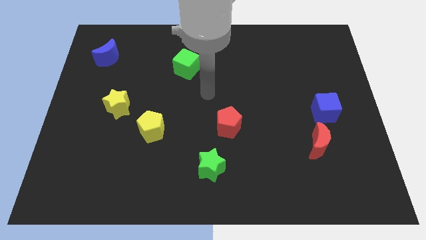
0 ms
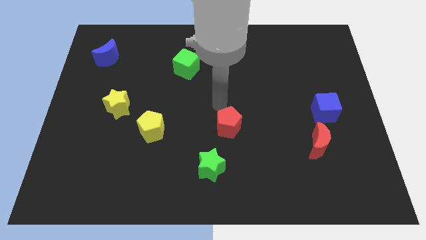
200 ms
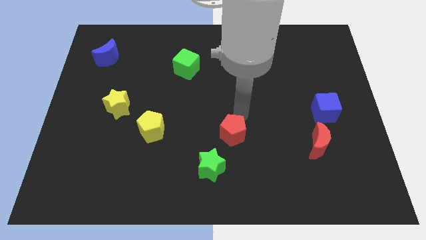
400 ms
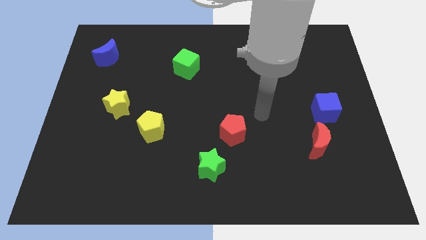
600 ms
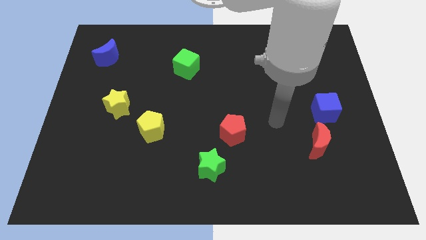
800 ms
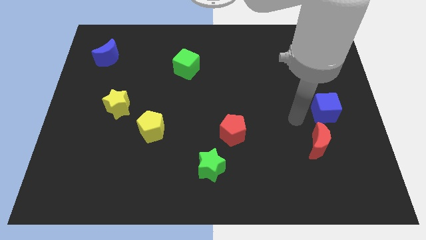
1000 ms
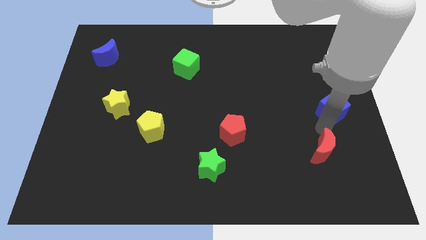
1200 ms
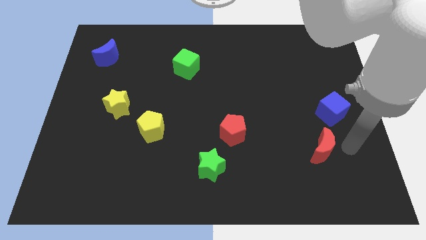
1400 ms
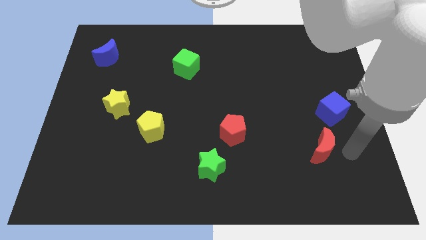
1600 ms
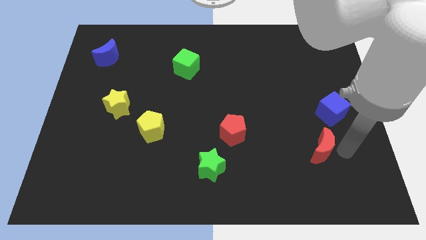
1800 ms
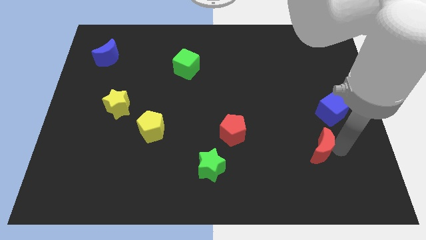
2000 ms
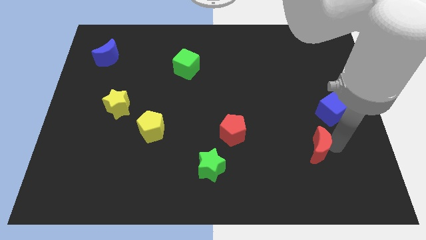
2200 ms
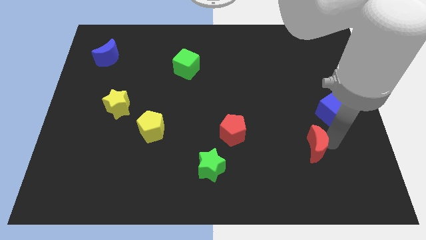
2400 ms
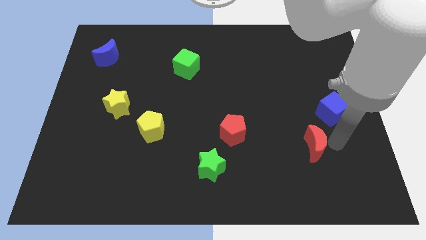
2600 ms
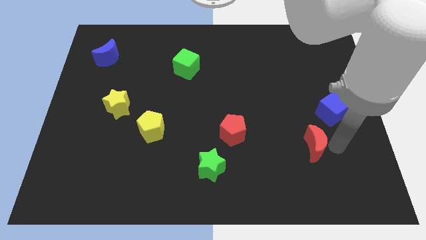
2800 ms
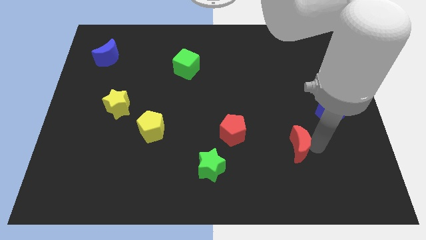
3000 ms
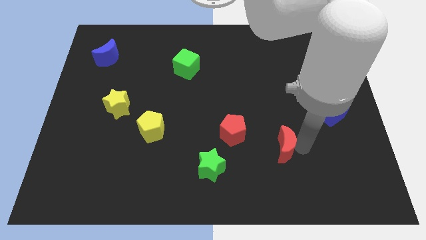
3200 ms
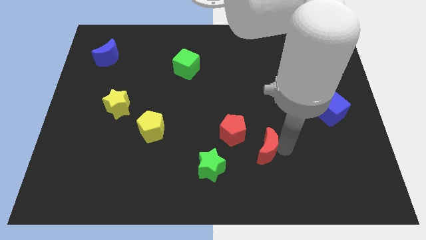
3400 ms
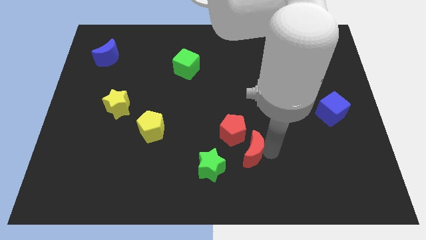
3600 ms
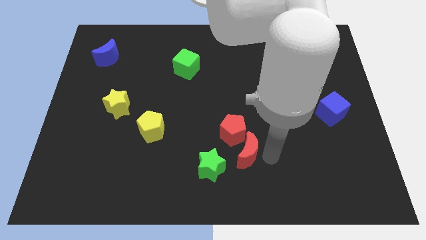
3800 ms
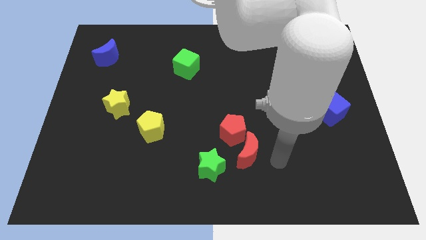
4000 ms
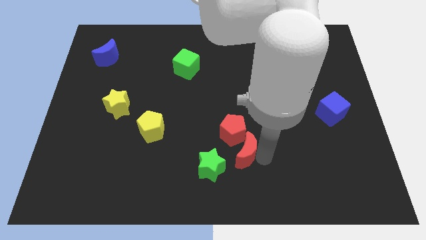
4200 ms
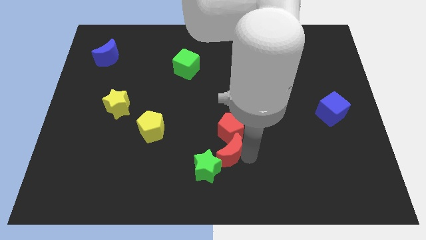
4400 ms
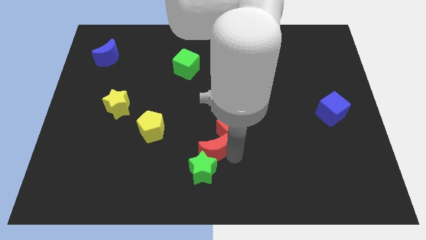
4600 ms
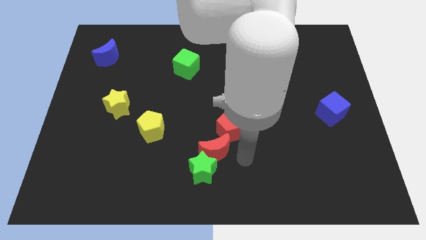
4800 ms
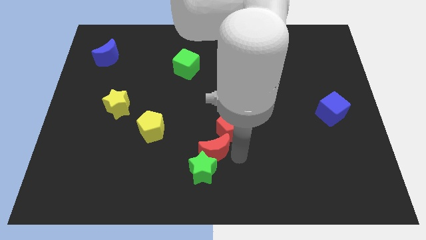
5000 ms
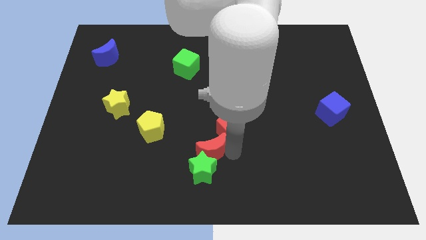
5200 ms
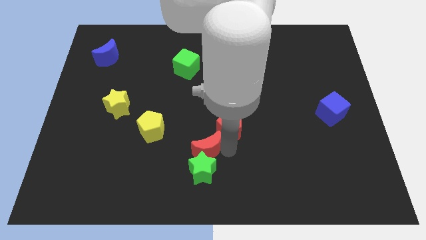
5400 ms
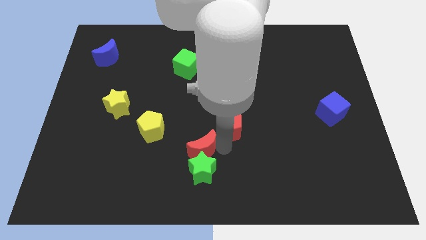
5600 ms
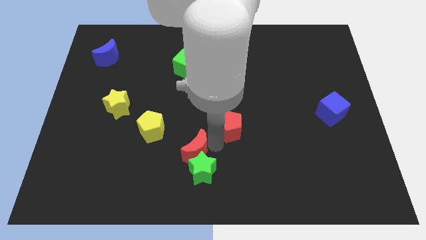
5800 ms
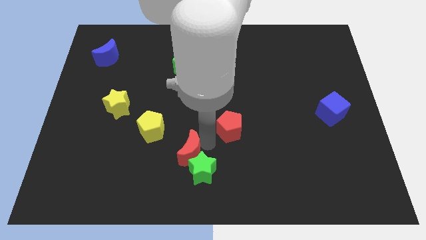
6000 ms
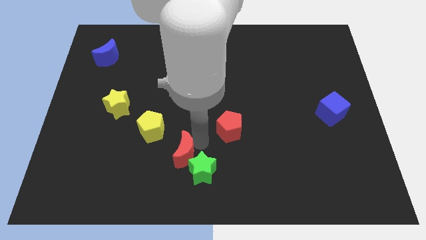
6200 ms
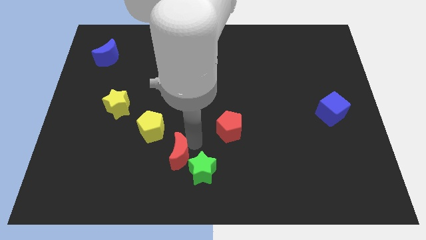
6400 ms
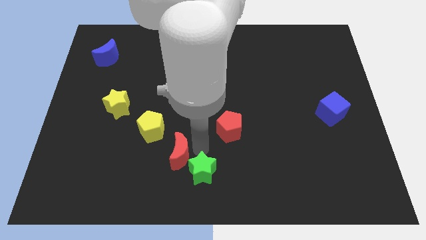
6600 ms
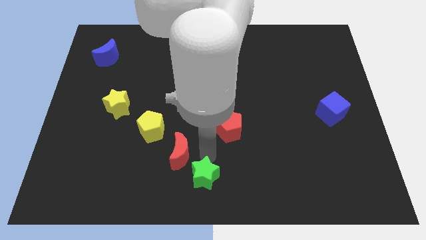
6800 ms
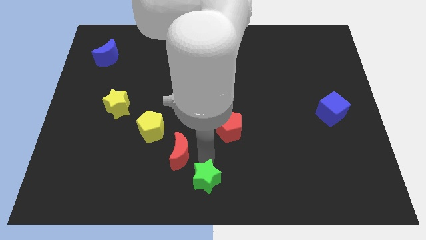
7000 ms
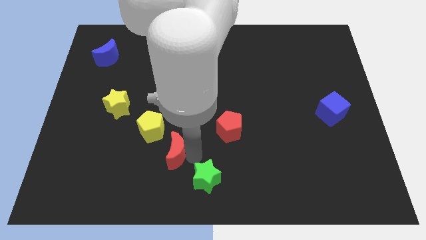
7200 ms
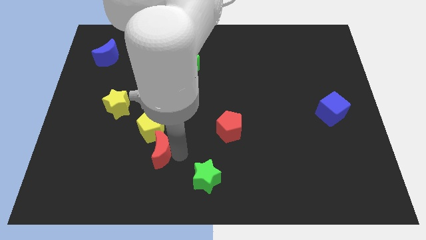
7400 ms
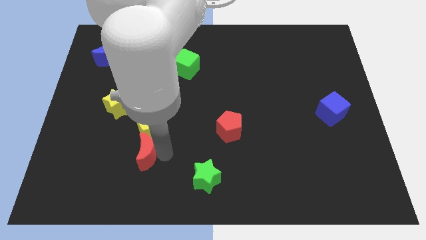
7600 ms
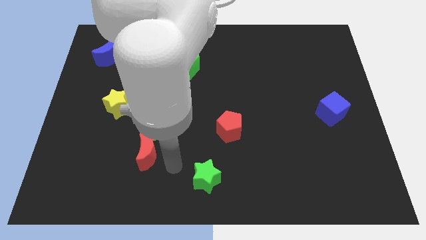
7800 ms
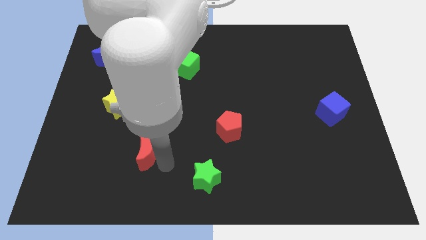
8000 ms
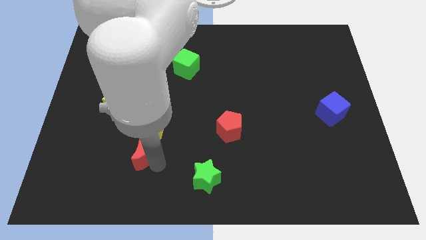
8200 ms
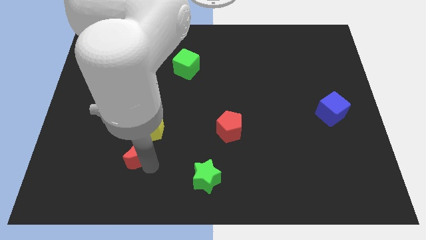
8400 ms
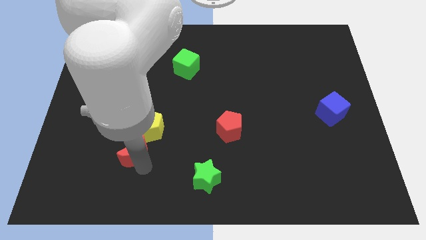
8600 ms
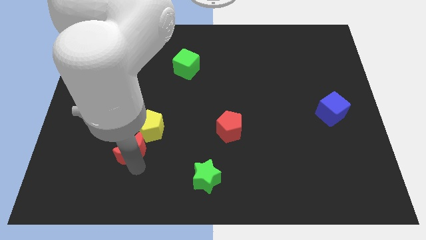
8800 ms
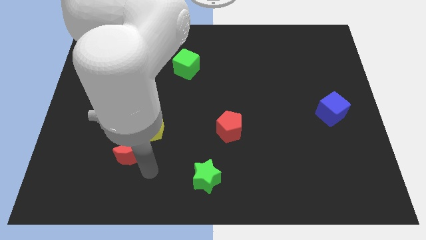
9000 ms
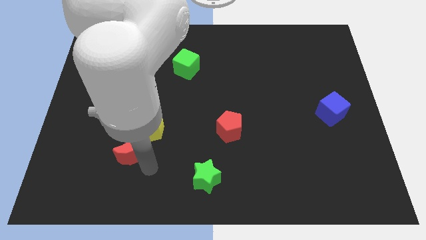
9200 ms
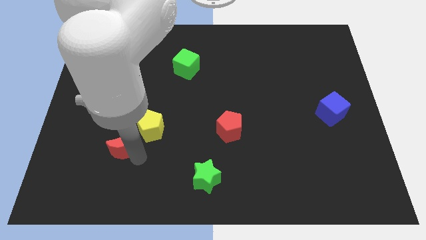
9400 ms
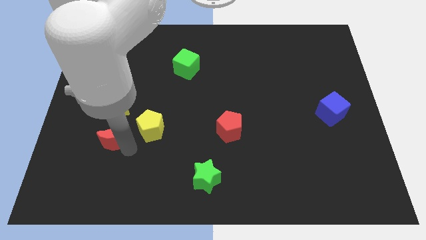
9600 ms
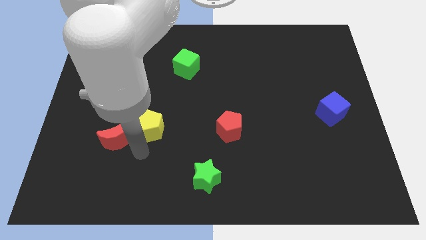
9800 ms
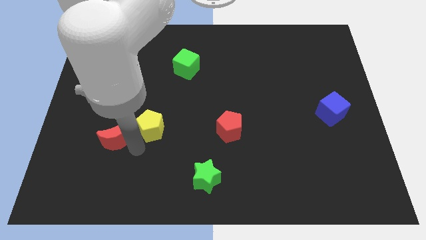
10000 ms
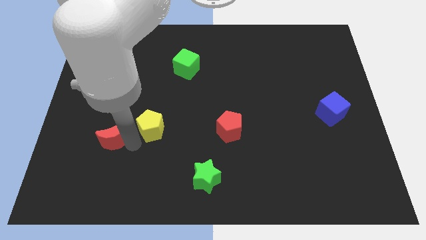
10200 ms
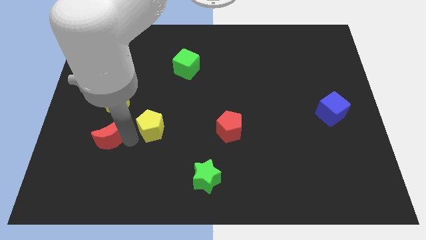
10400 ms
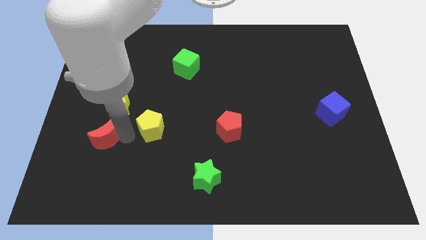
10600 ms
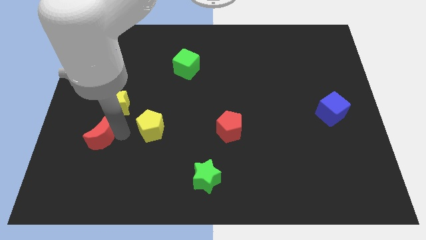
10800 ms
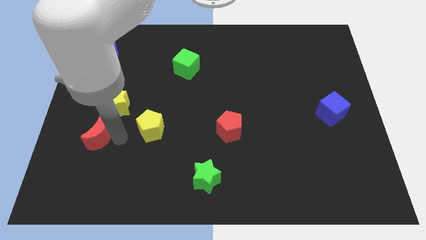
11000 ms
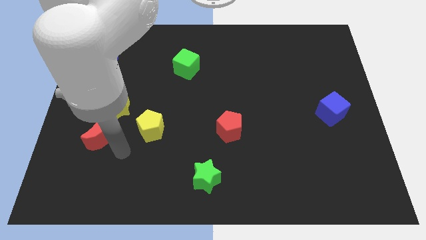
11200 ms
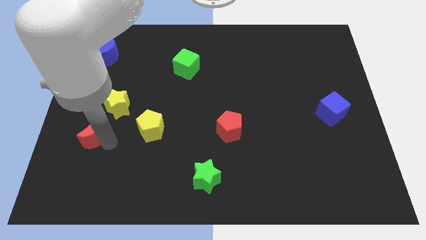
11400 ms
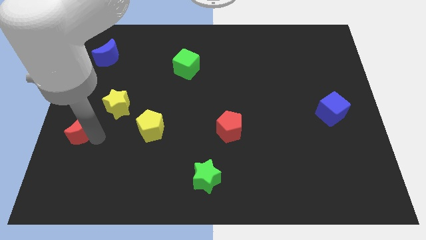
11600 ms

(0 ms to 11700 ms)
move the red moon to the center left

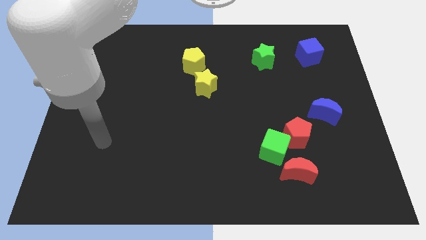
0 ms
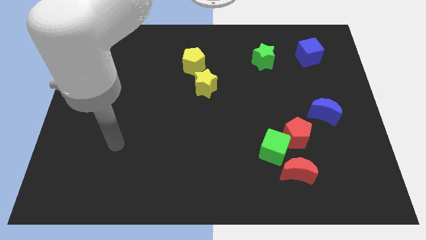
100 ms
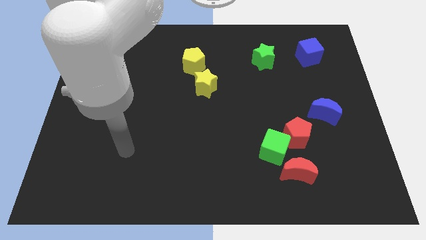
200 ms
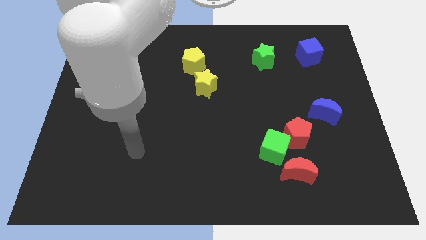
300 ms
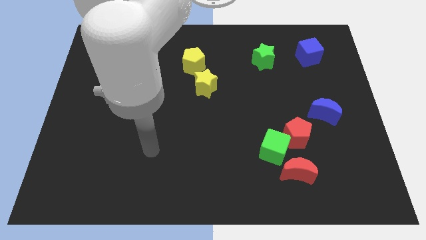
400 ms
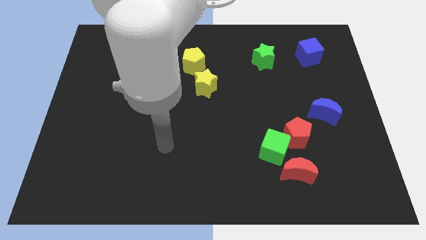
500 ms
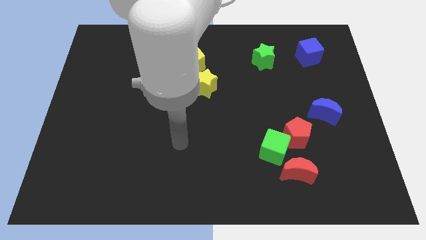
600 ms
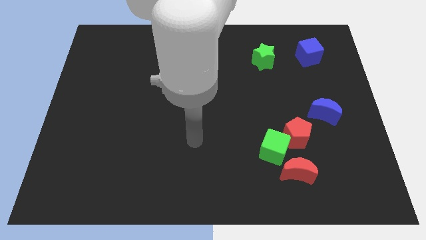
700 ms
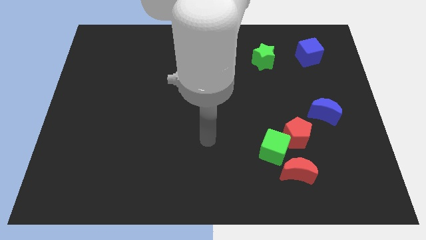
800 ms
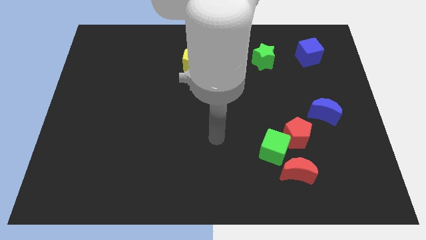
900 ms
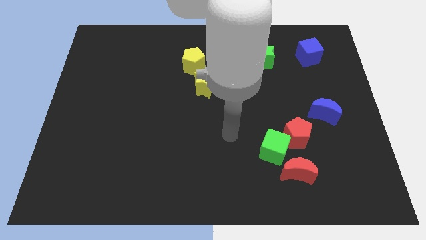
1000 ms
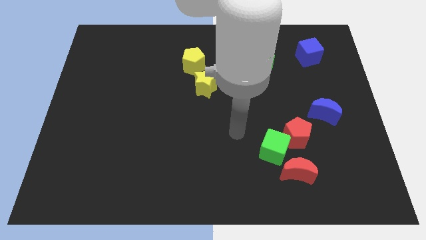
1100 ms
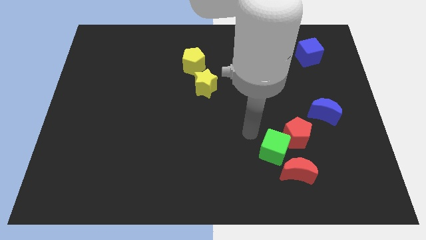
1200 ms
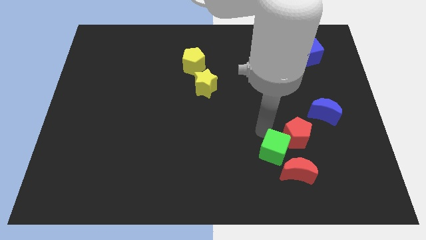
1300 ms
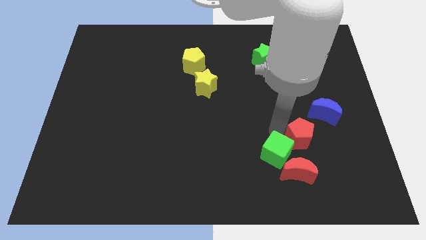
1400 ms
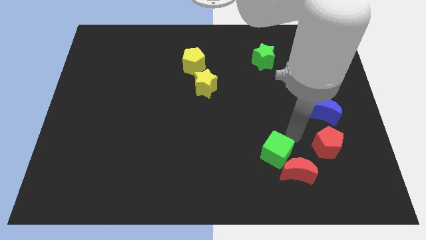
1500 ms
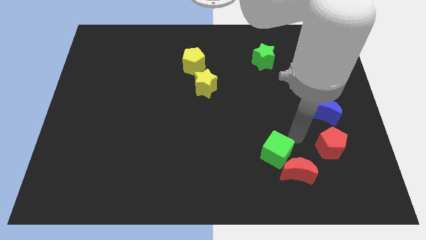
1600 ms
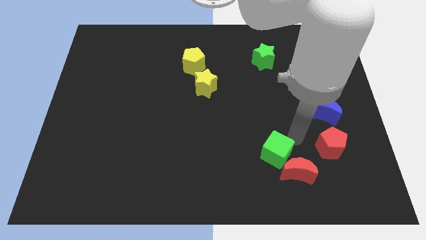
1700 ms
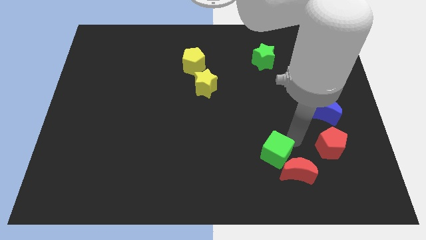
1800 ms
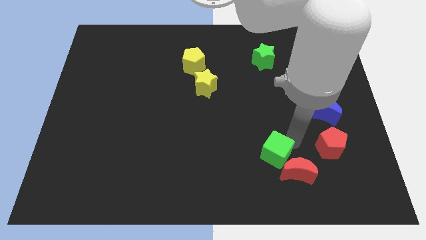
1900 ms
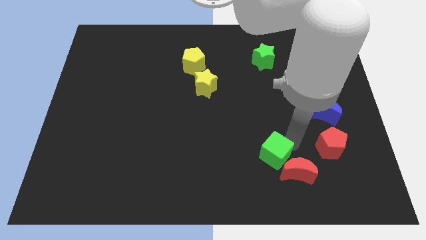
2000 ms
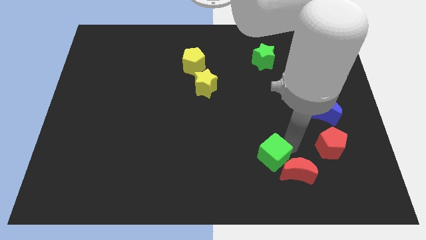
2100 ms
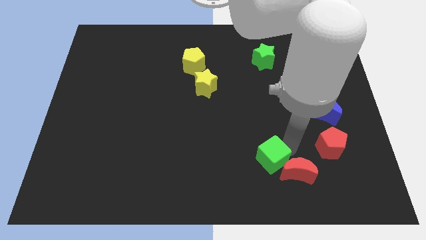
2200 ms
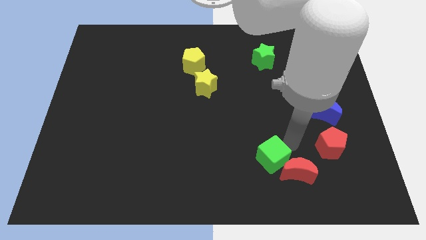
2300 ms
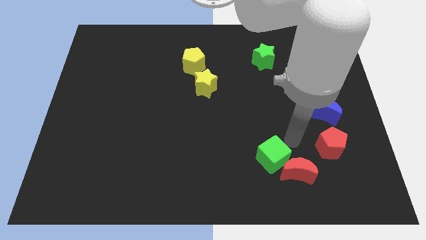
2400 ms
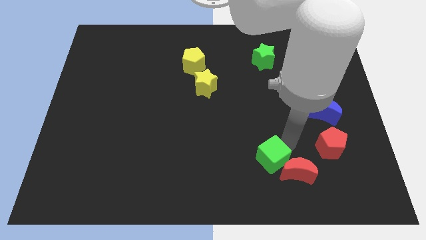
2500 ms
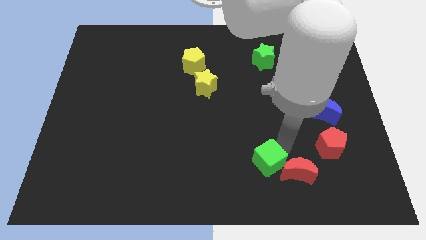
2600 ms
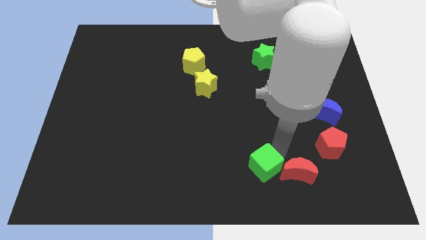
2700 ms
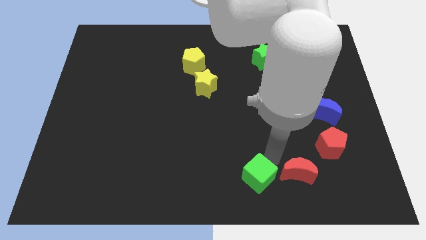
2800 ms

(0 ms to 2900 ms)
push the green cube to the bottom
